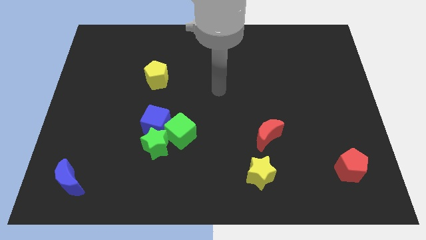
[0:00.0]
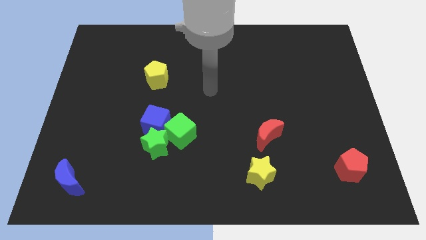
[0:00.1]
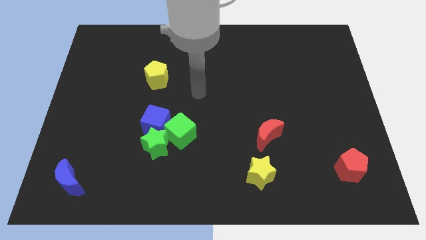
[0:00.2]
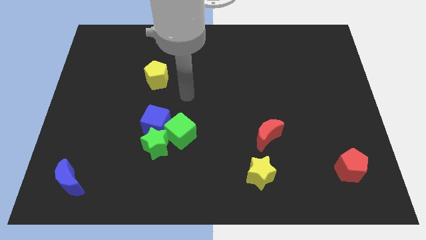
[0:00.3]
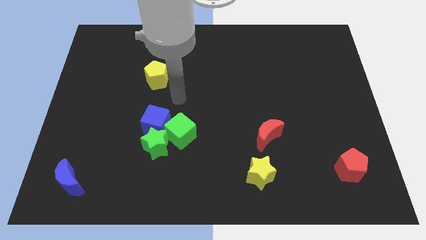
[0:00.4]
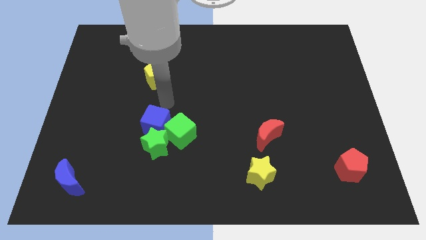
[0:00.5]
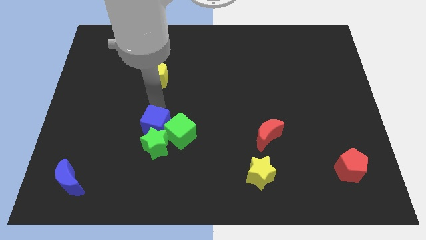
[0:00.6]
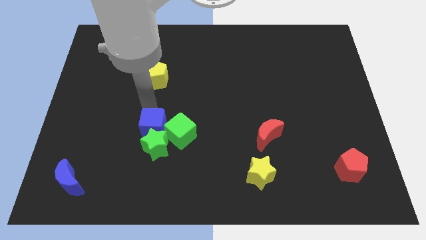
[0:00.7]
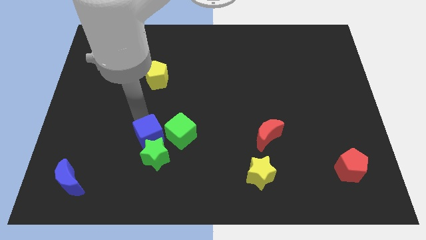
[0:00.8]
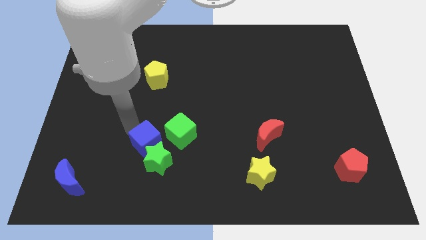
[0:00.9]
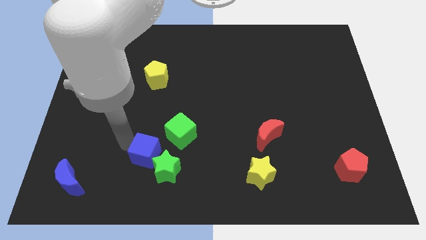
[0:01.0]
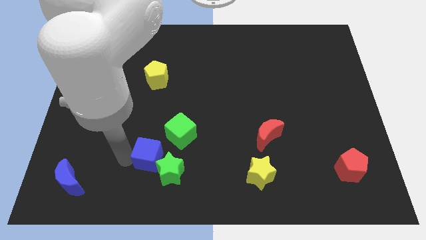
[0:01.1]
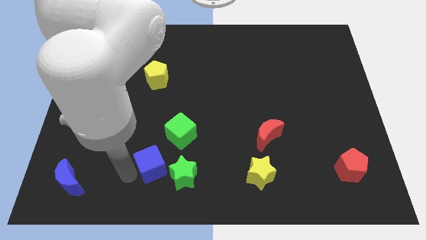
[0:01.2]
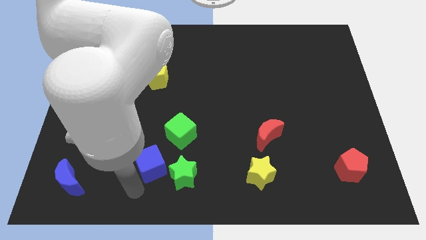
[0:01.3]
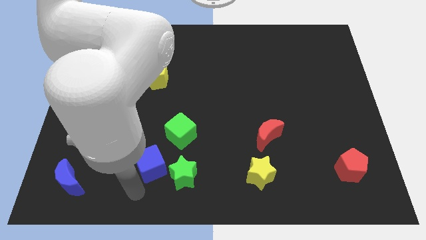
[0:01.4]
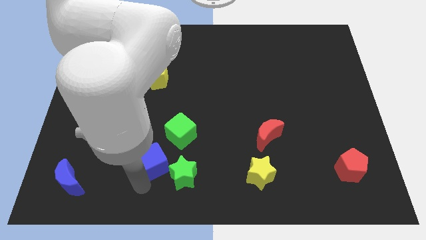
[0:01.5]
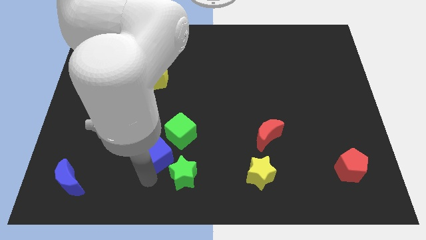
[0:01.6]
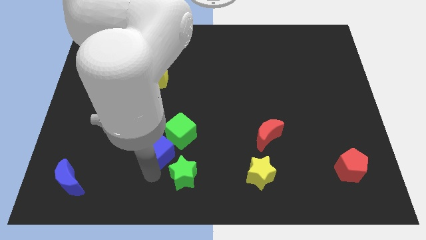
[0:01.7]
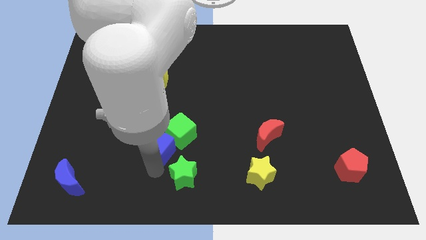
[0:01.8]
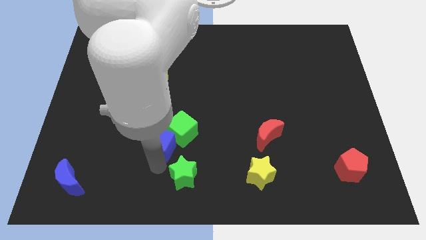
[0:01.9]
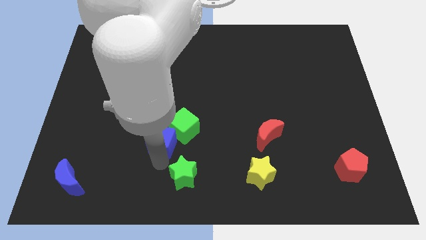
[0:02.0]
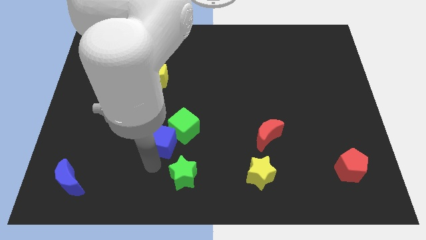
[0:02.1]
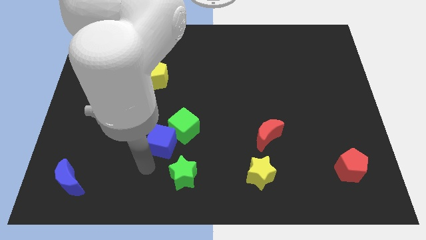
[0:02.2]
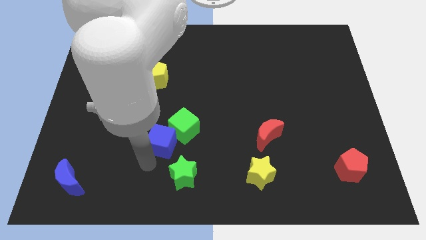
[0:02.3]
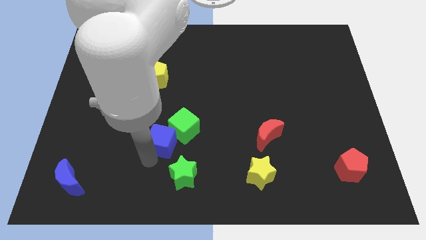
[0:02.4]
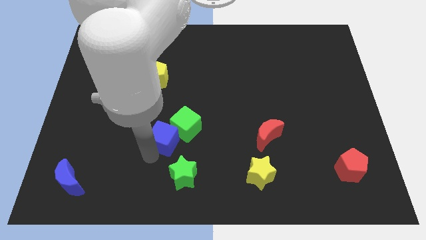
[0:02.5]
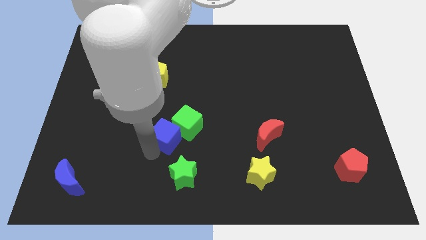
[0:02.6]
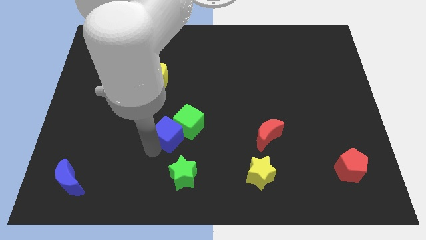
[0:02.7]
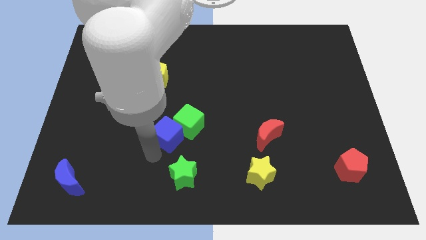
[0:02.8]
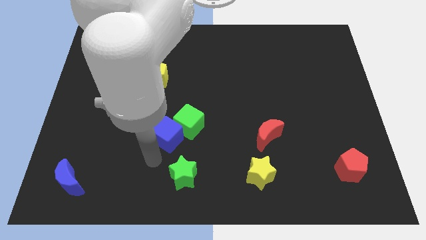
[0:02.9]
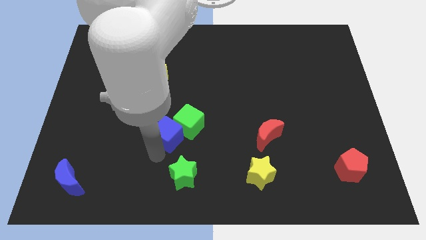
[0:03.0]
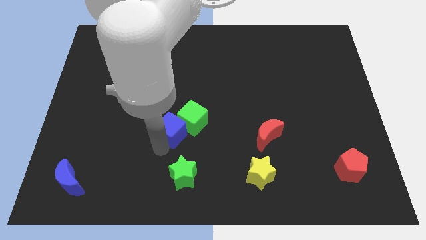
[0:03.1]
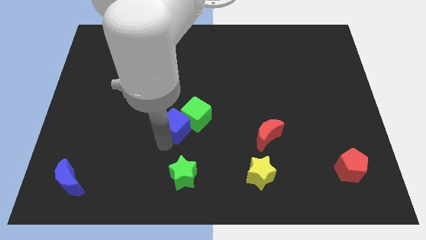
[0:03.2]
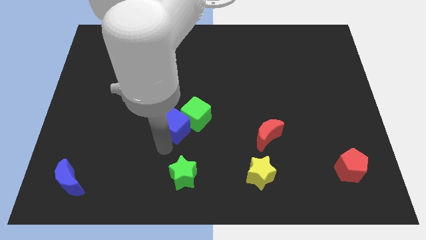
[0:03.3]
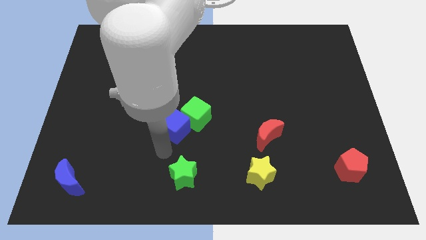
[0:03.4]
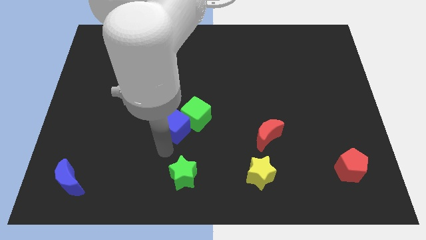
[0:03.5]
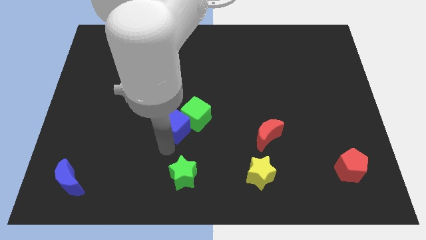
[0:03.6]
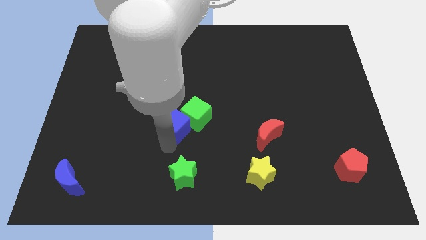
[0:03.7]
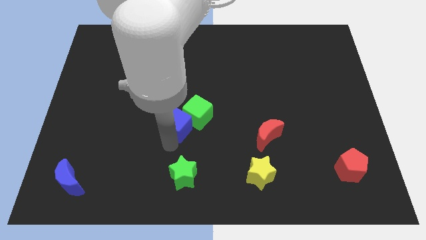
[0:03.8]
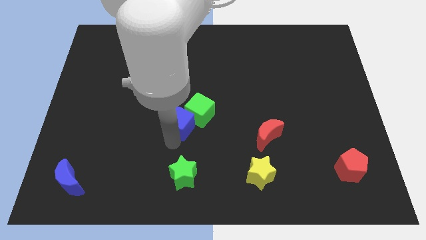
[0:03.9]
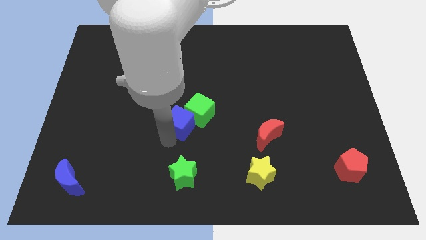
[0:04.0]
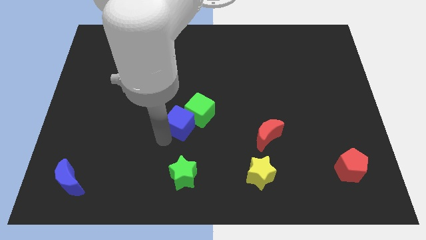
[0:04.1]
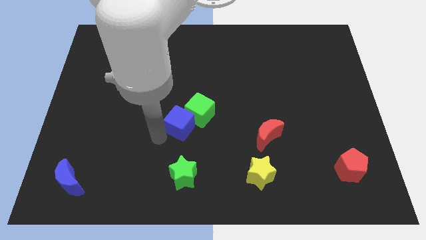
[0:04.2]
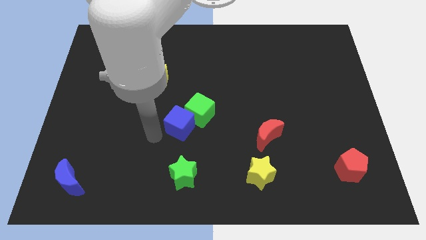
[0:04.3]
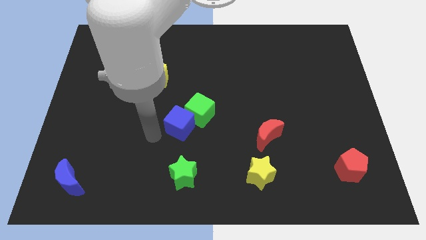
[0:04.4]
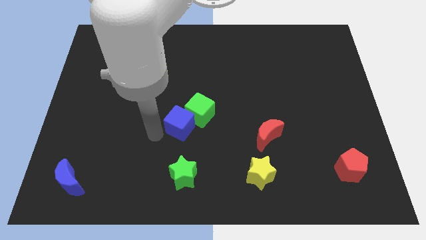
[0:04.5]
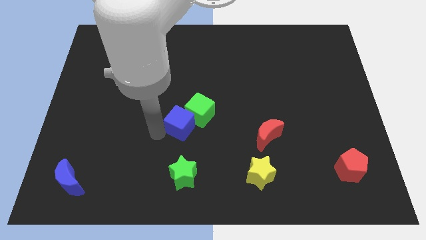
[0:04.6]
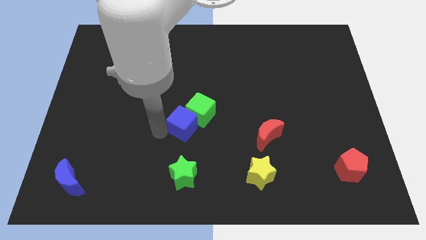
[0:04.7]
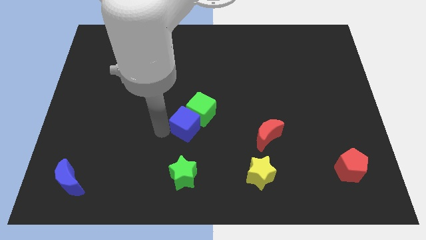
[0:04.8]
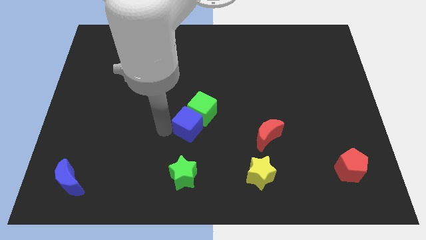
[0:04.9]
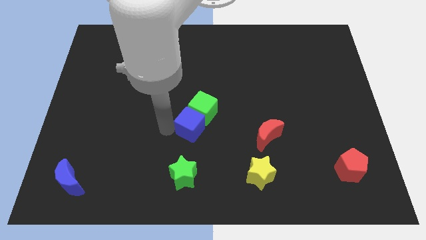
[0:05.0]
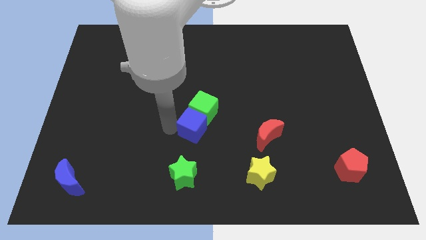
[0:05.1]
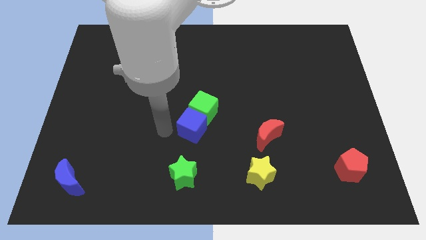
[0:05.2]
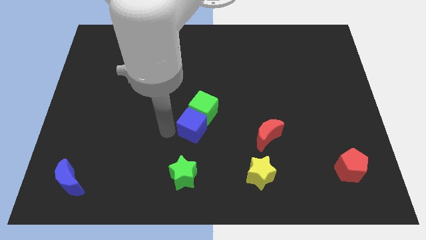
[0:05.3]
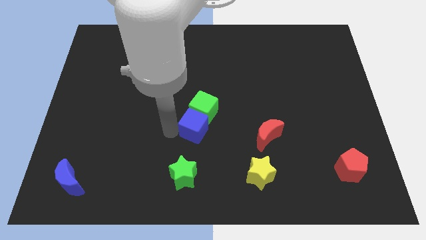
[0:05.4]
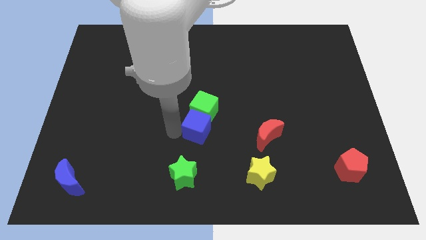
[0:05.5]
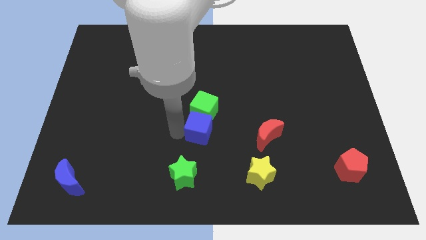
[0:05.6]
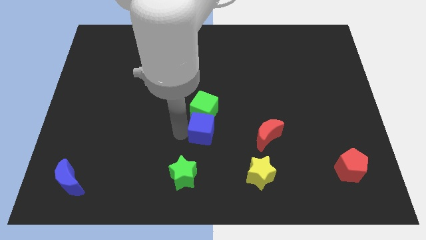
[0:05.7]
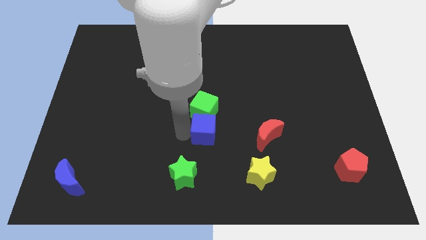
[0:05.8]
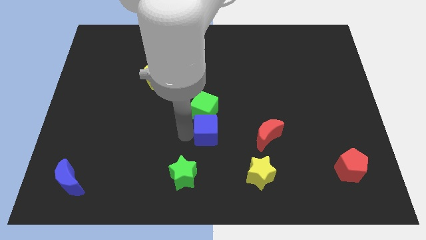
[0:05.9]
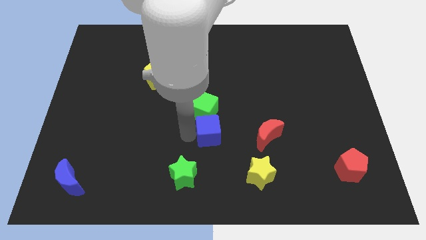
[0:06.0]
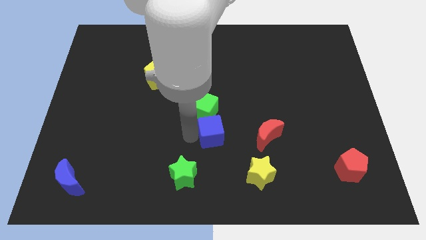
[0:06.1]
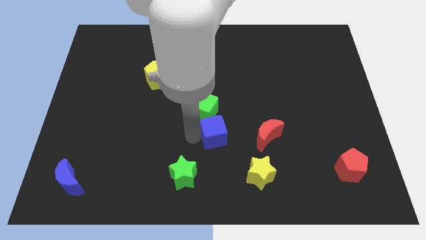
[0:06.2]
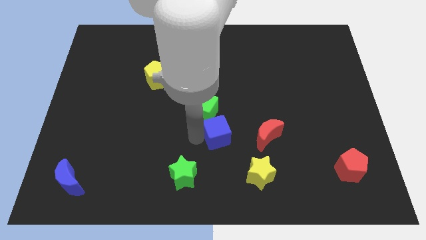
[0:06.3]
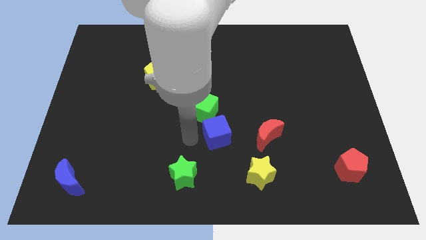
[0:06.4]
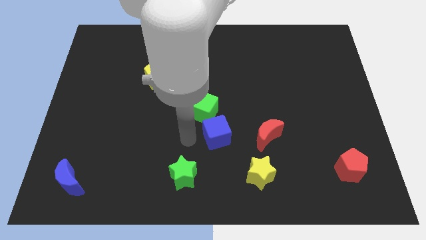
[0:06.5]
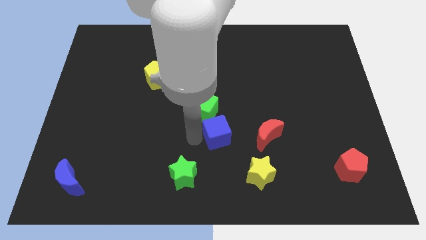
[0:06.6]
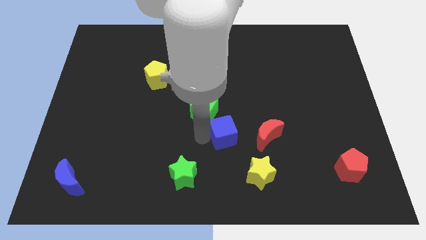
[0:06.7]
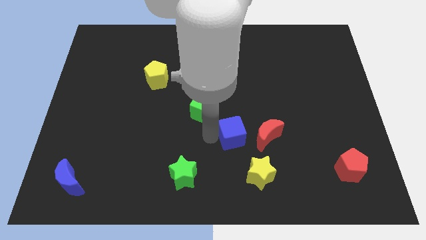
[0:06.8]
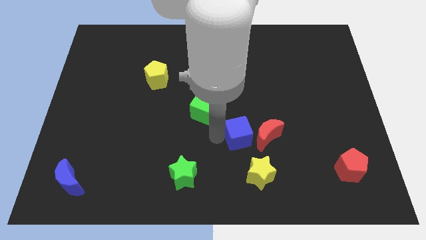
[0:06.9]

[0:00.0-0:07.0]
put the blue cube towards the red moon
